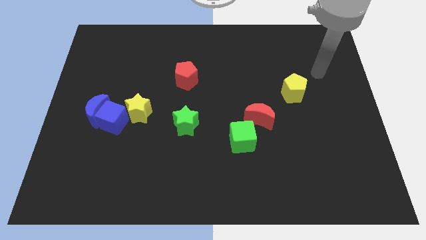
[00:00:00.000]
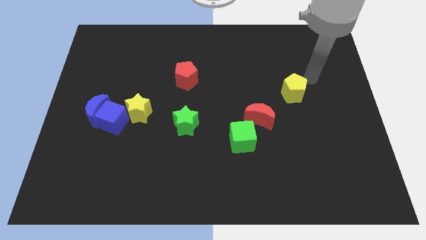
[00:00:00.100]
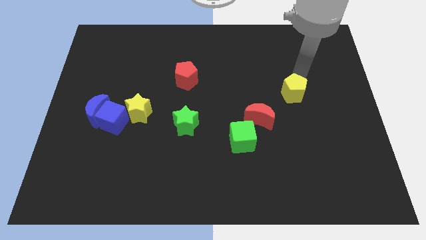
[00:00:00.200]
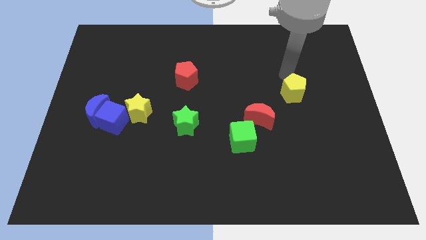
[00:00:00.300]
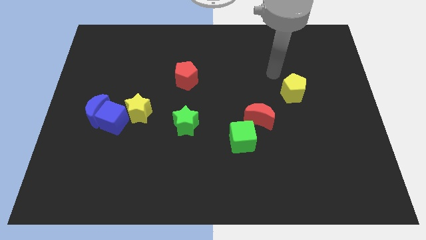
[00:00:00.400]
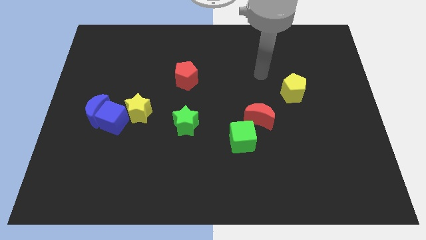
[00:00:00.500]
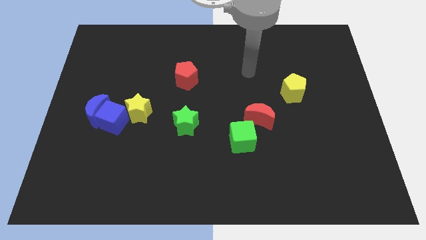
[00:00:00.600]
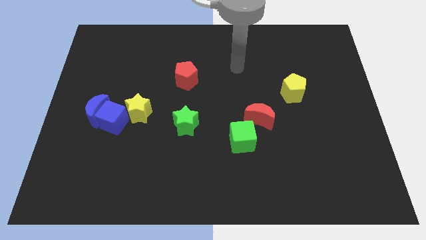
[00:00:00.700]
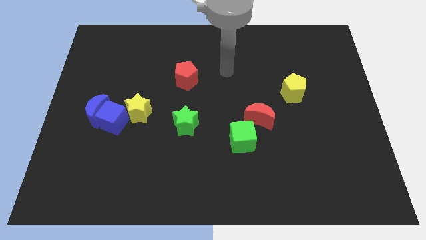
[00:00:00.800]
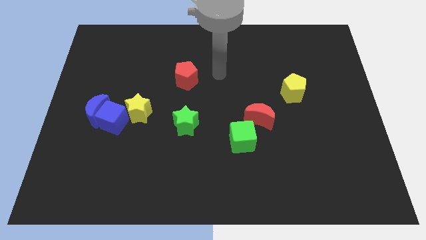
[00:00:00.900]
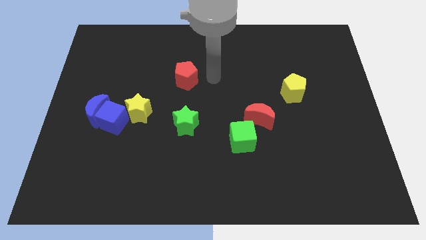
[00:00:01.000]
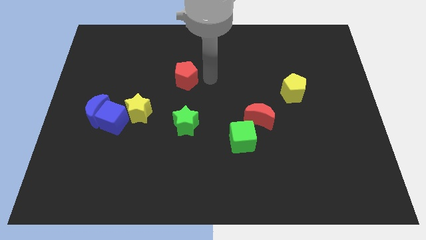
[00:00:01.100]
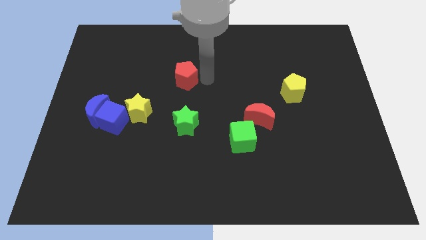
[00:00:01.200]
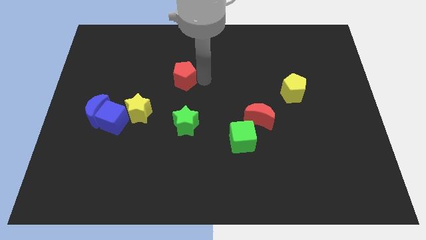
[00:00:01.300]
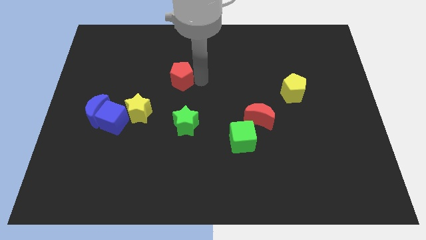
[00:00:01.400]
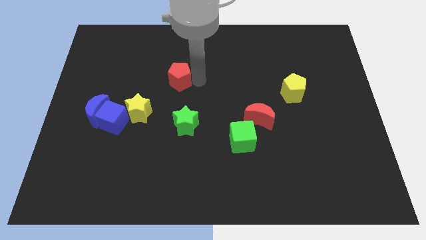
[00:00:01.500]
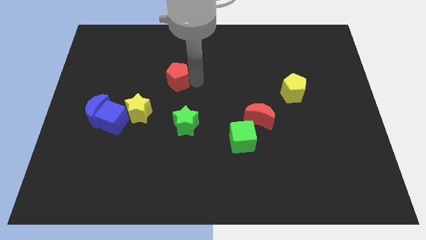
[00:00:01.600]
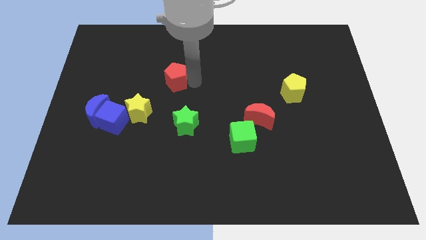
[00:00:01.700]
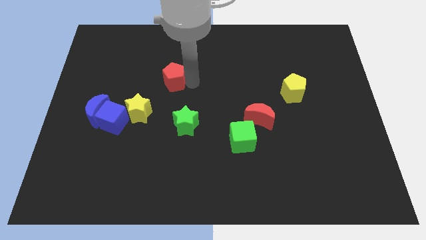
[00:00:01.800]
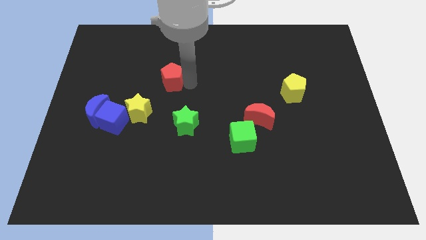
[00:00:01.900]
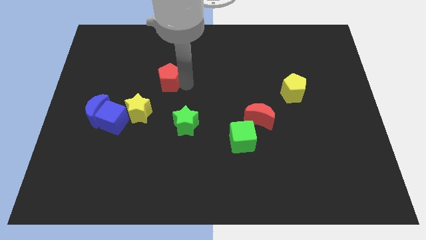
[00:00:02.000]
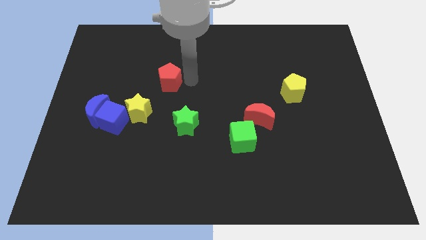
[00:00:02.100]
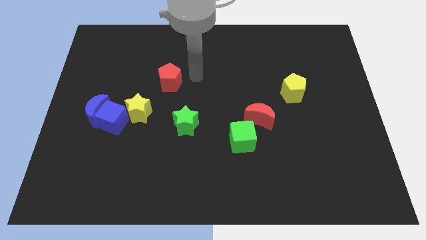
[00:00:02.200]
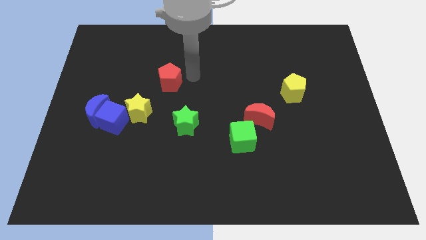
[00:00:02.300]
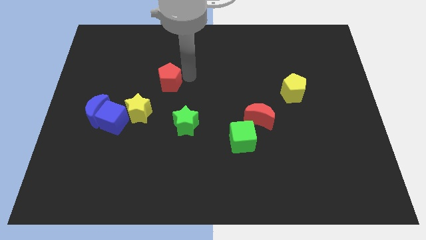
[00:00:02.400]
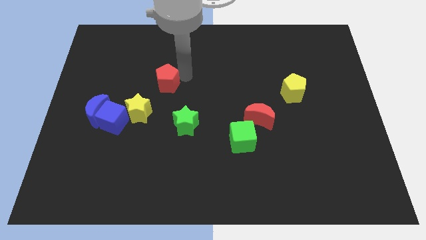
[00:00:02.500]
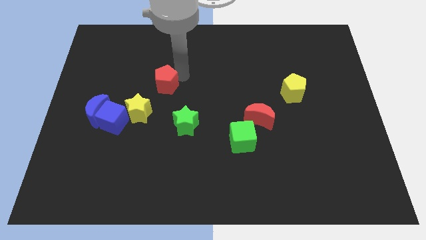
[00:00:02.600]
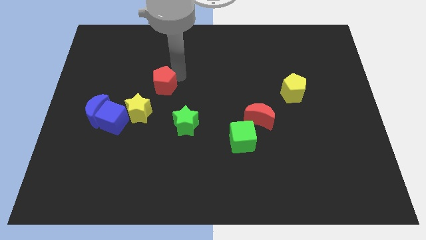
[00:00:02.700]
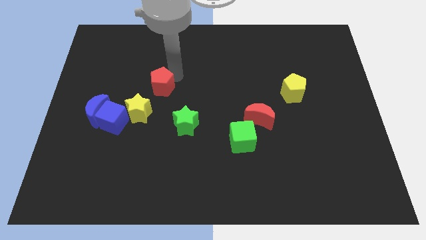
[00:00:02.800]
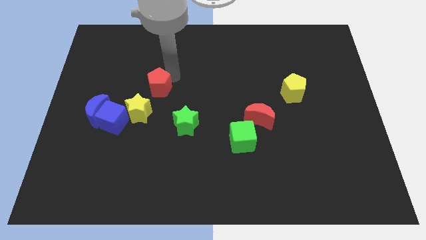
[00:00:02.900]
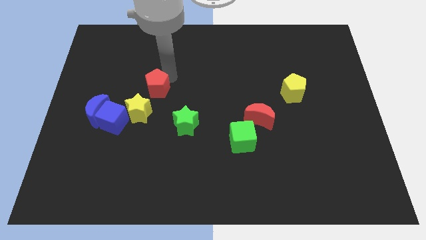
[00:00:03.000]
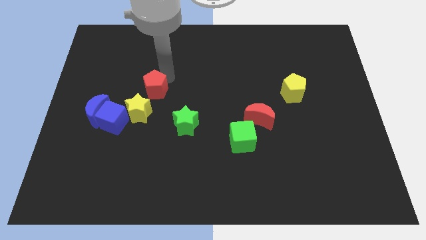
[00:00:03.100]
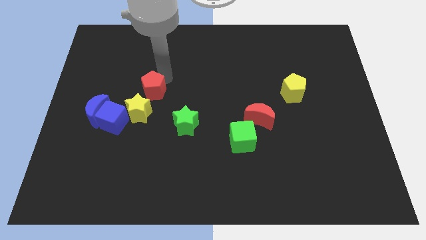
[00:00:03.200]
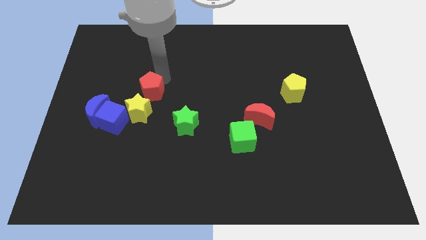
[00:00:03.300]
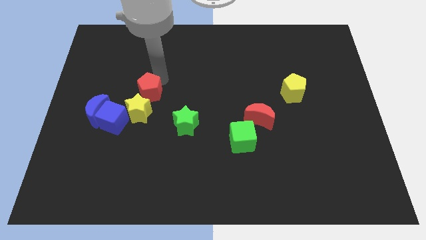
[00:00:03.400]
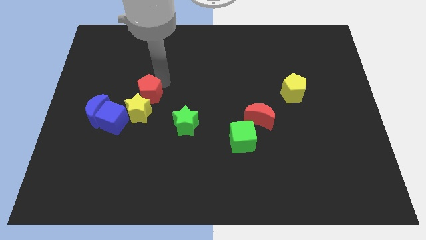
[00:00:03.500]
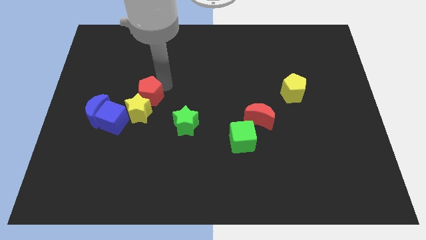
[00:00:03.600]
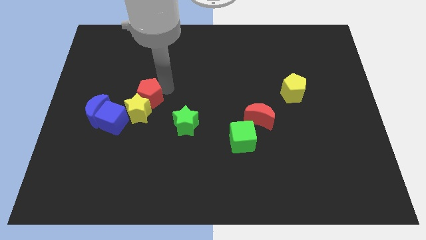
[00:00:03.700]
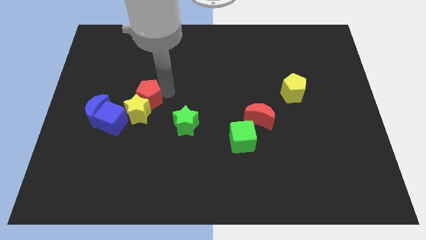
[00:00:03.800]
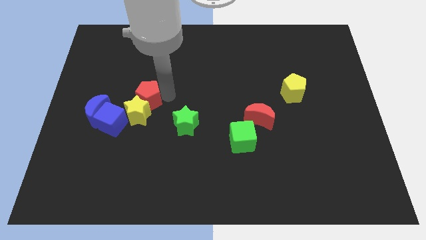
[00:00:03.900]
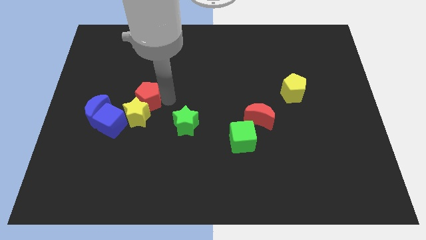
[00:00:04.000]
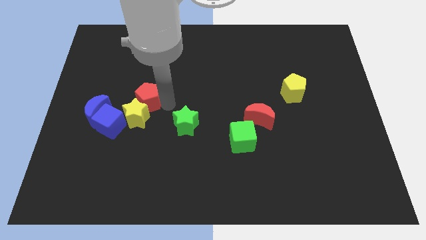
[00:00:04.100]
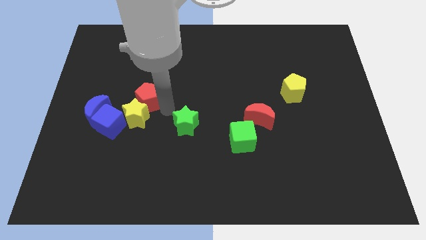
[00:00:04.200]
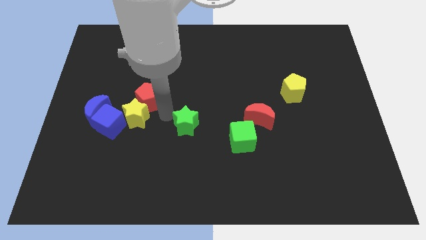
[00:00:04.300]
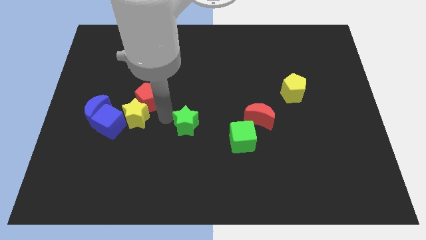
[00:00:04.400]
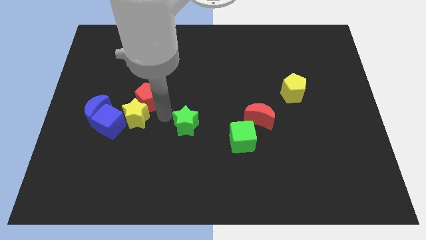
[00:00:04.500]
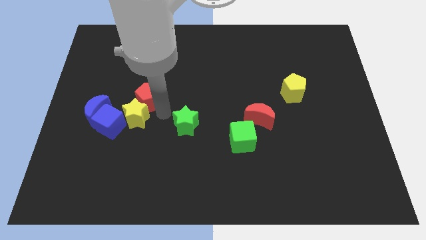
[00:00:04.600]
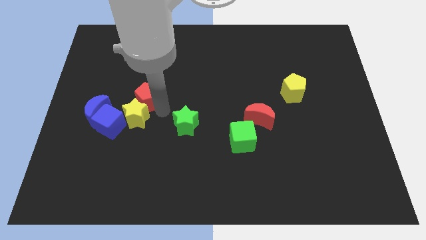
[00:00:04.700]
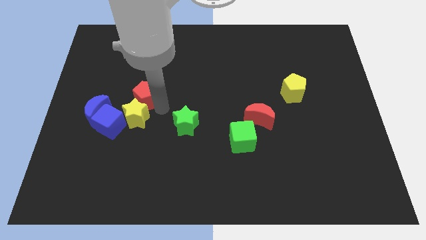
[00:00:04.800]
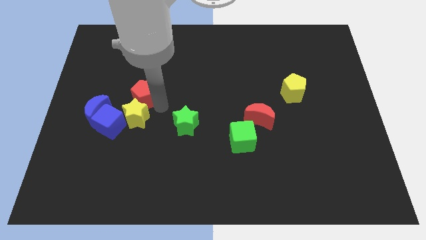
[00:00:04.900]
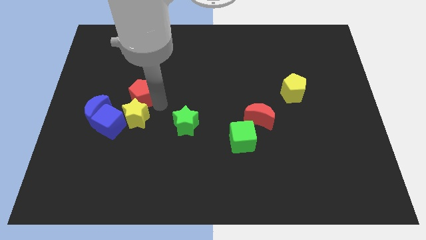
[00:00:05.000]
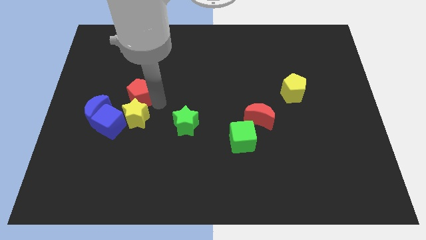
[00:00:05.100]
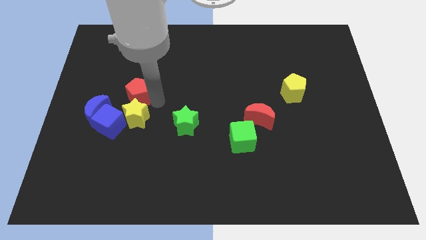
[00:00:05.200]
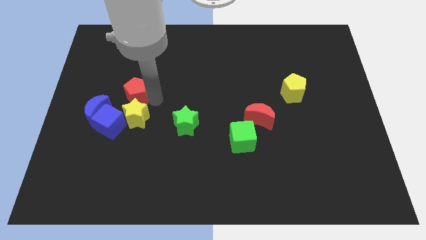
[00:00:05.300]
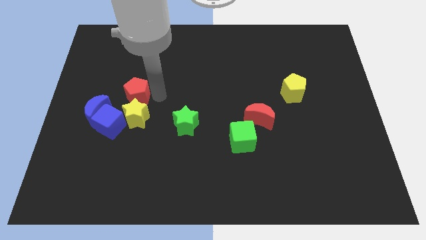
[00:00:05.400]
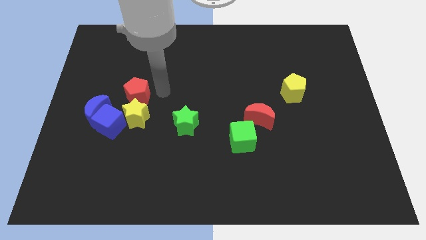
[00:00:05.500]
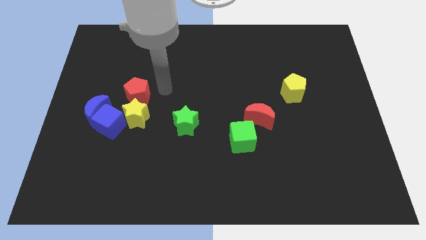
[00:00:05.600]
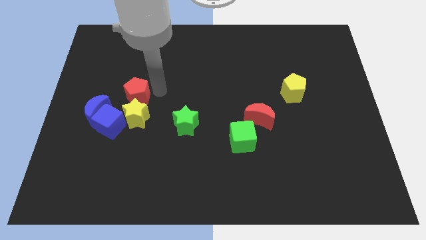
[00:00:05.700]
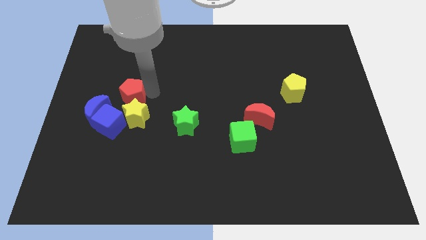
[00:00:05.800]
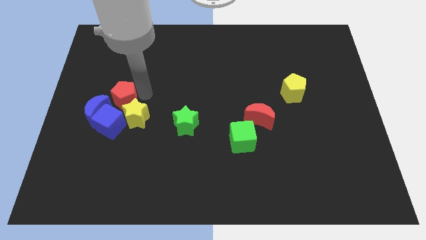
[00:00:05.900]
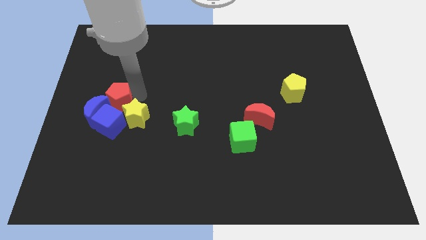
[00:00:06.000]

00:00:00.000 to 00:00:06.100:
move the red pentagon next to the blue moon

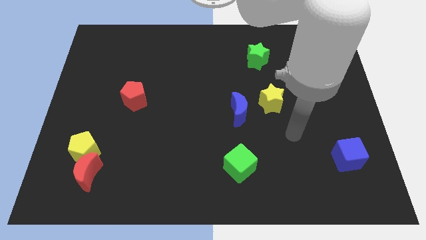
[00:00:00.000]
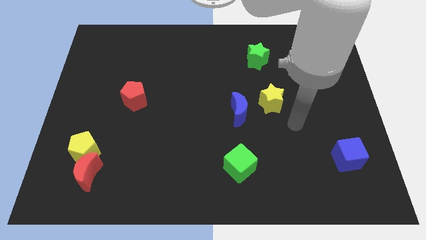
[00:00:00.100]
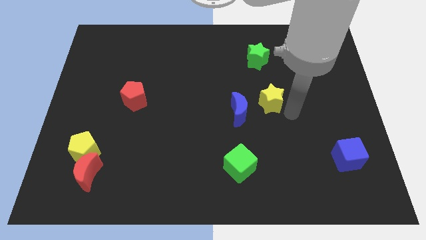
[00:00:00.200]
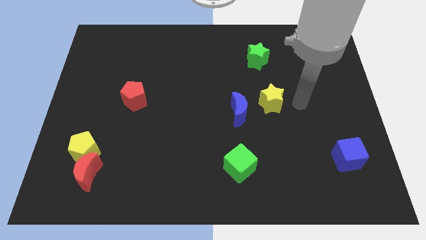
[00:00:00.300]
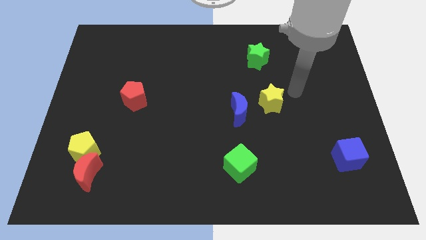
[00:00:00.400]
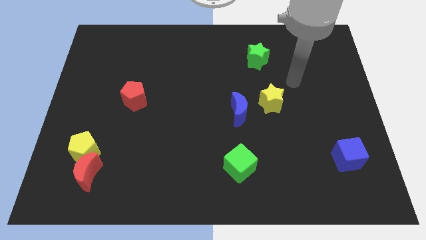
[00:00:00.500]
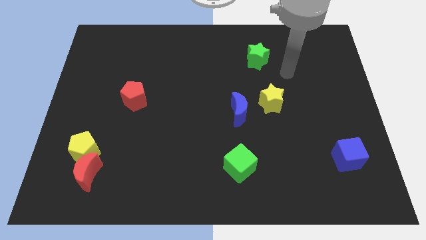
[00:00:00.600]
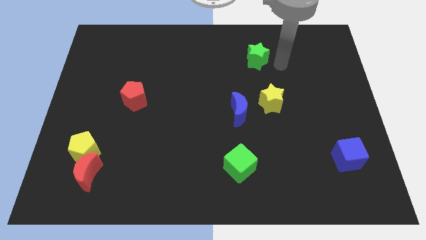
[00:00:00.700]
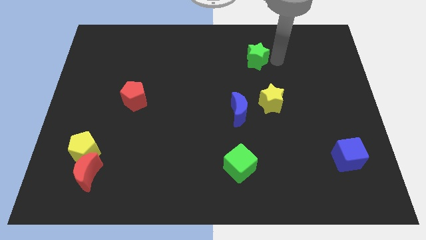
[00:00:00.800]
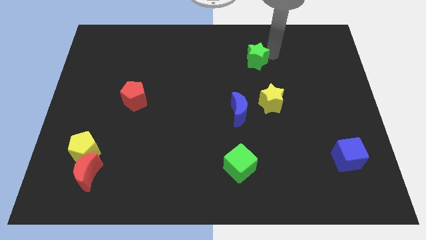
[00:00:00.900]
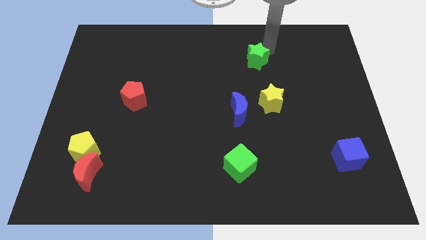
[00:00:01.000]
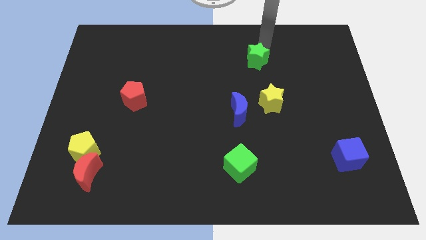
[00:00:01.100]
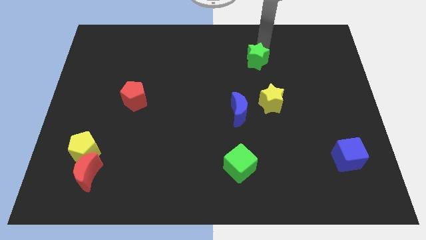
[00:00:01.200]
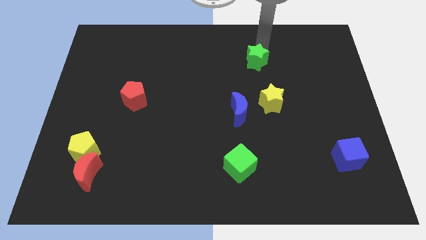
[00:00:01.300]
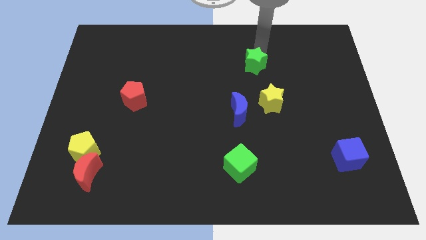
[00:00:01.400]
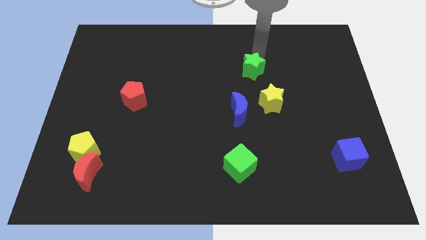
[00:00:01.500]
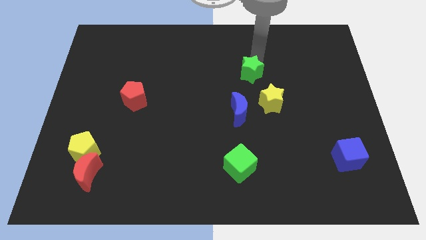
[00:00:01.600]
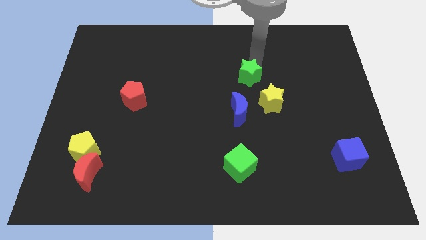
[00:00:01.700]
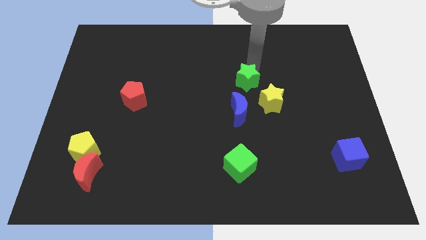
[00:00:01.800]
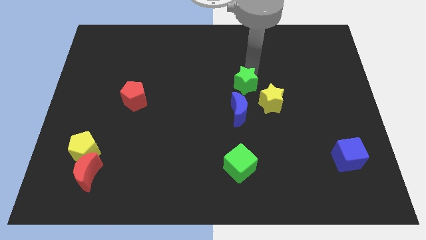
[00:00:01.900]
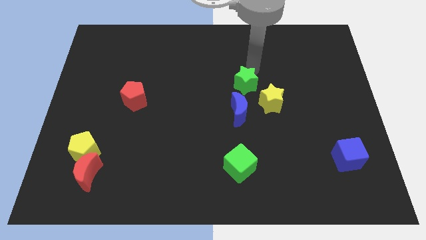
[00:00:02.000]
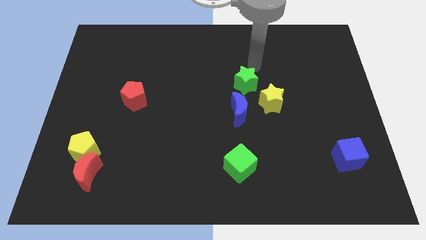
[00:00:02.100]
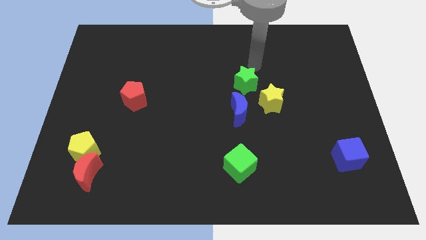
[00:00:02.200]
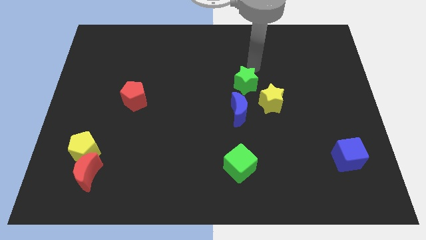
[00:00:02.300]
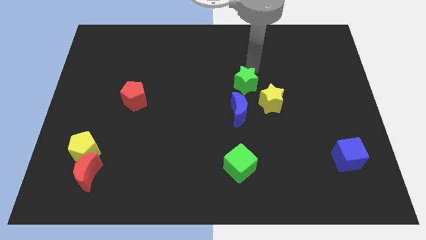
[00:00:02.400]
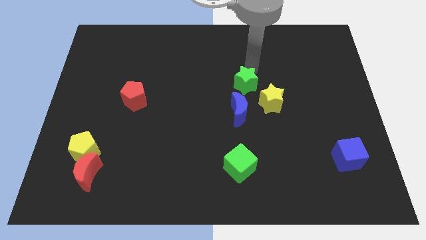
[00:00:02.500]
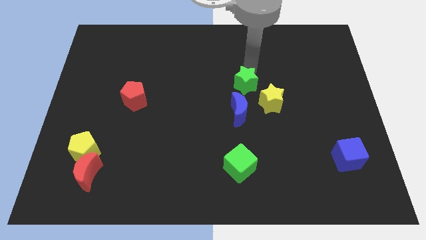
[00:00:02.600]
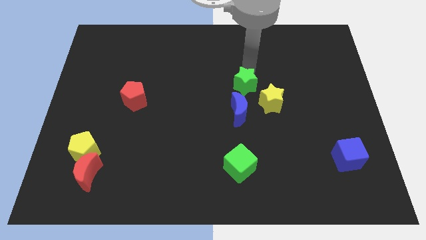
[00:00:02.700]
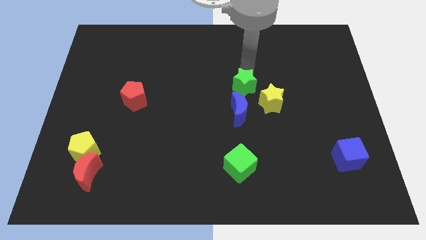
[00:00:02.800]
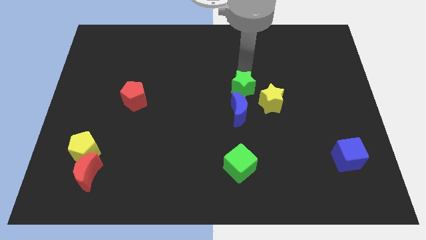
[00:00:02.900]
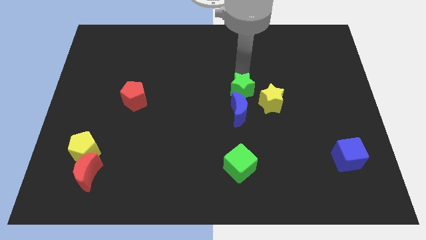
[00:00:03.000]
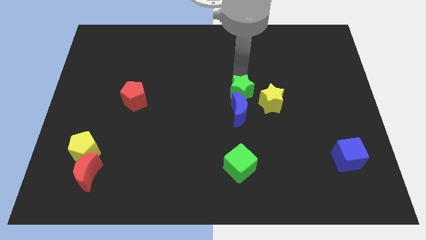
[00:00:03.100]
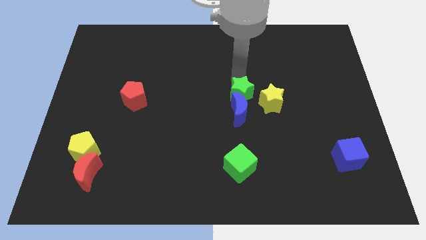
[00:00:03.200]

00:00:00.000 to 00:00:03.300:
push the green star towards the blue moon
